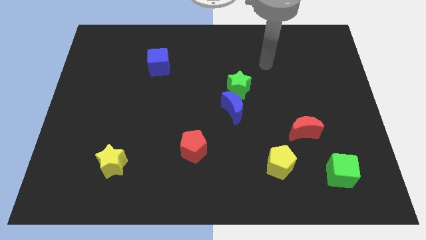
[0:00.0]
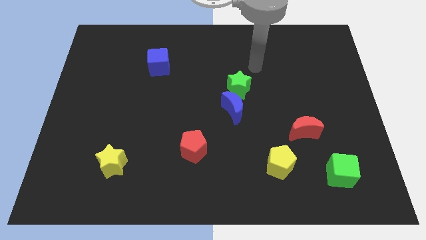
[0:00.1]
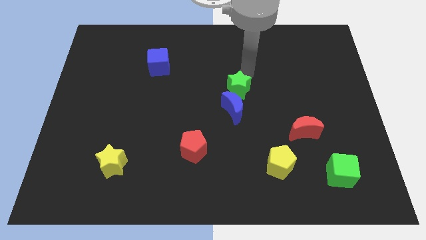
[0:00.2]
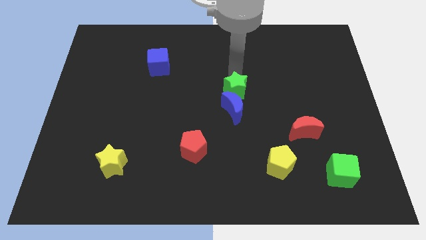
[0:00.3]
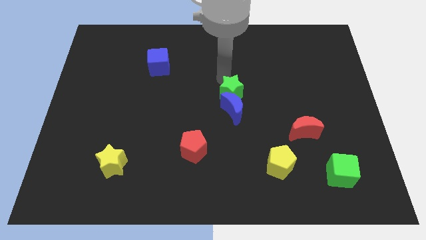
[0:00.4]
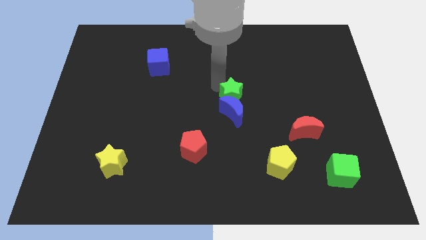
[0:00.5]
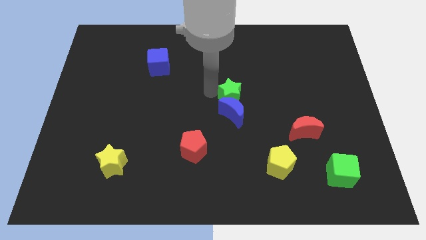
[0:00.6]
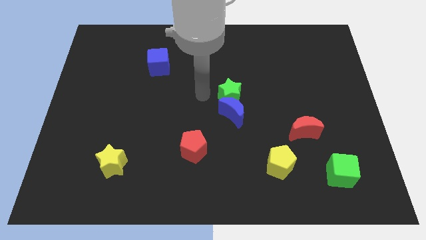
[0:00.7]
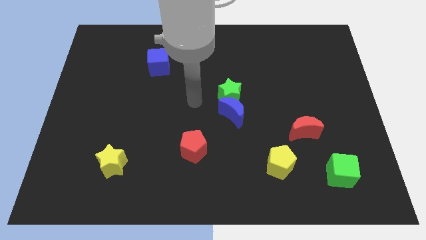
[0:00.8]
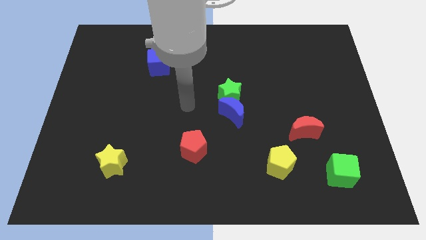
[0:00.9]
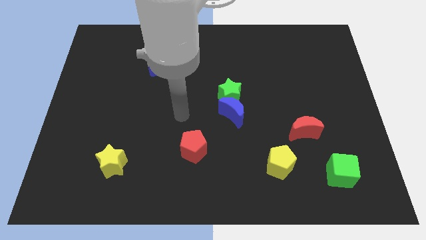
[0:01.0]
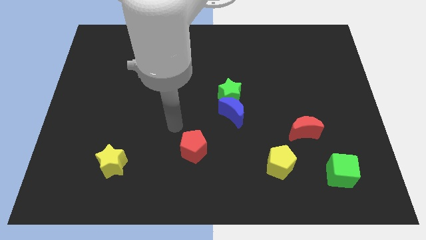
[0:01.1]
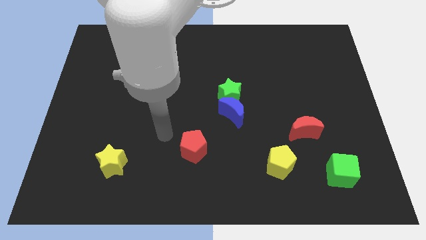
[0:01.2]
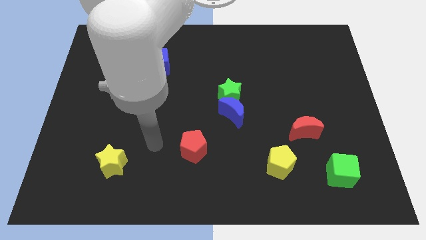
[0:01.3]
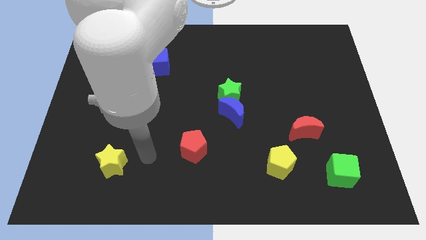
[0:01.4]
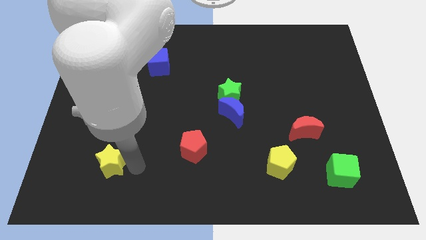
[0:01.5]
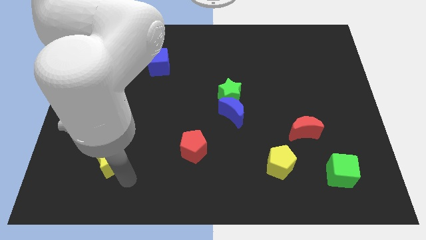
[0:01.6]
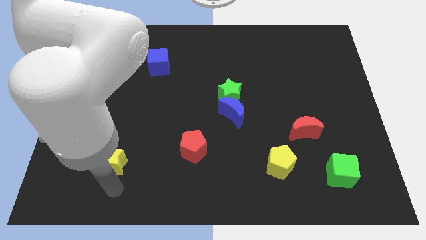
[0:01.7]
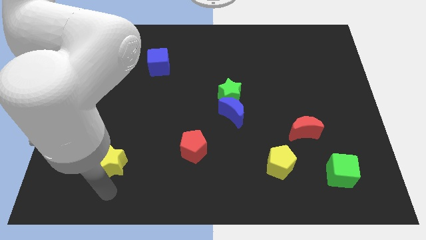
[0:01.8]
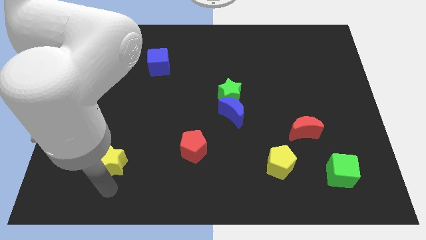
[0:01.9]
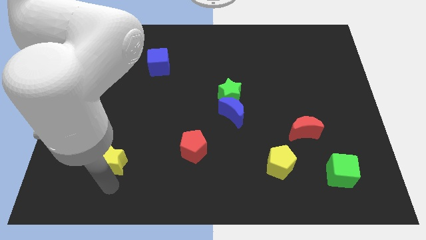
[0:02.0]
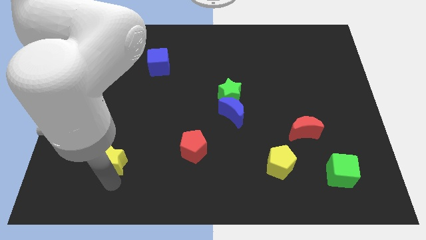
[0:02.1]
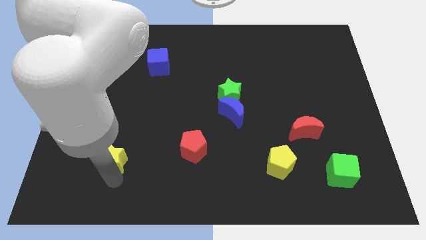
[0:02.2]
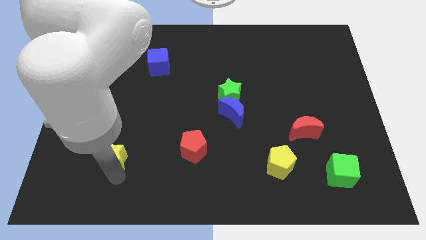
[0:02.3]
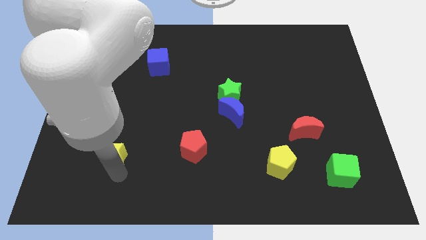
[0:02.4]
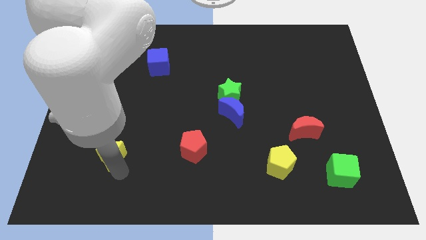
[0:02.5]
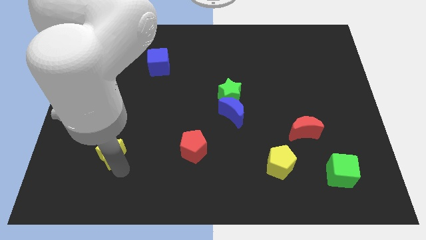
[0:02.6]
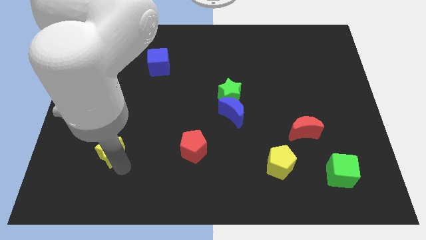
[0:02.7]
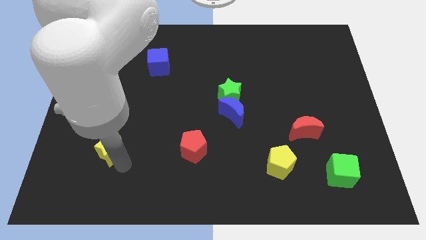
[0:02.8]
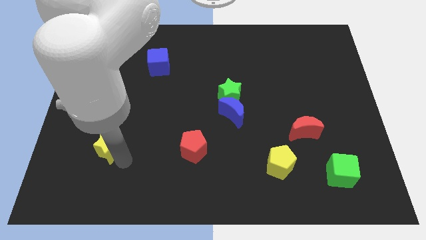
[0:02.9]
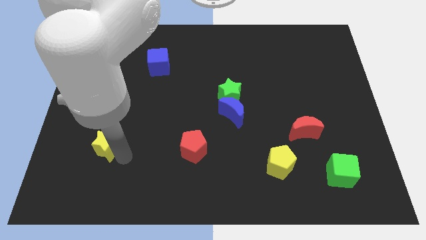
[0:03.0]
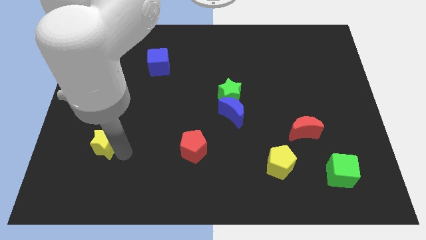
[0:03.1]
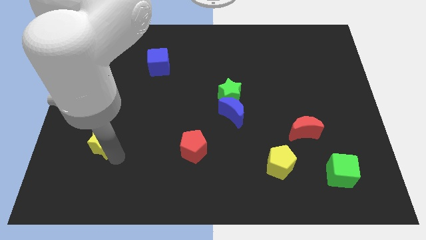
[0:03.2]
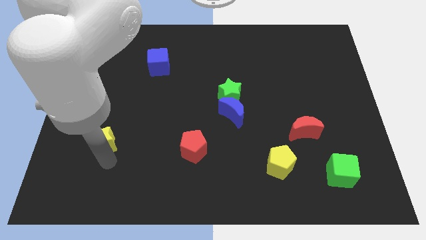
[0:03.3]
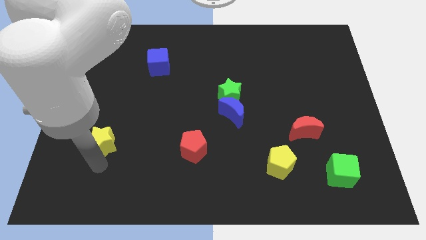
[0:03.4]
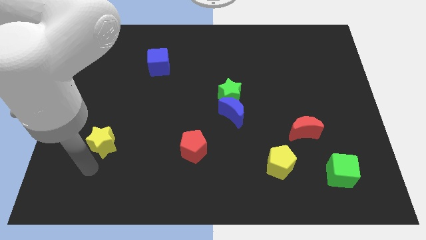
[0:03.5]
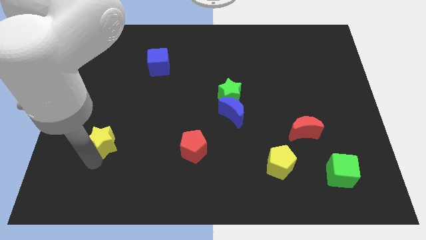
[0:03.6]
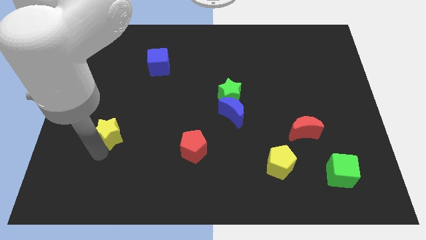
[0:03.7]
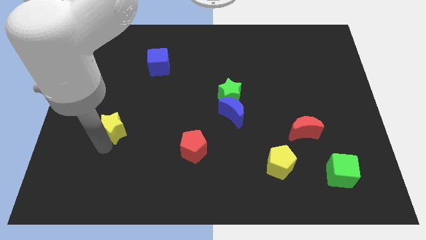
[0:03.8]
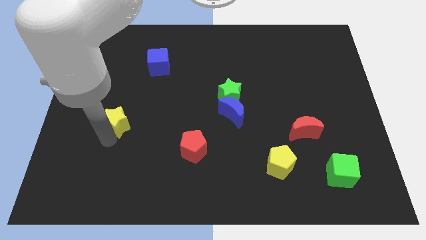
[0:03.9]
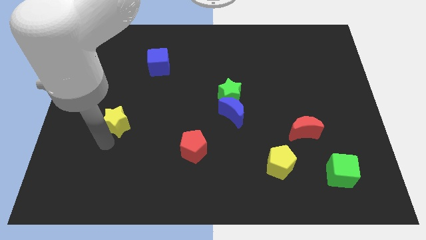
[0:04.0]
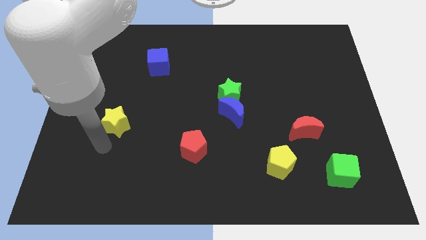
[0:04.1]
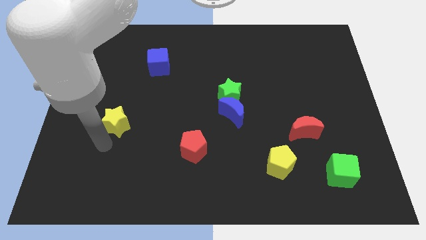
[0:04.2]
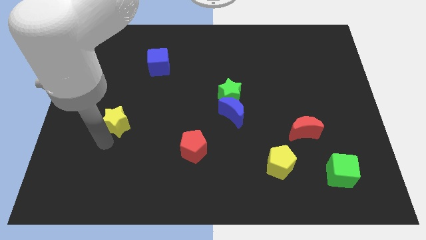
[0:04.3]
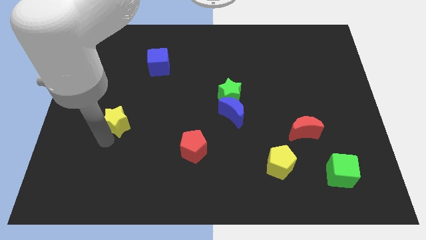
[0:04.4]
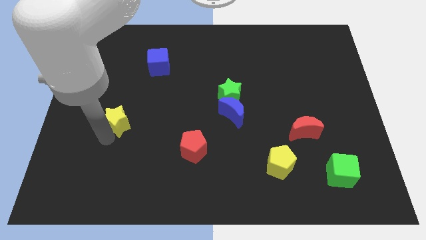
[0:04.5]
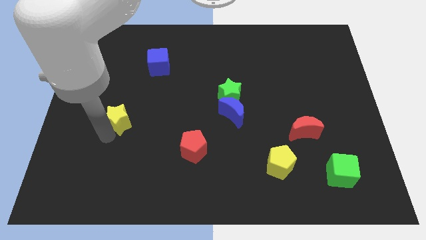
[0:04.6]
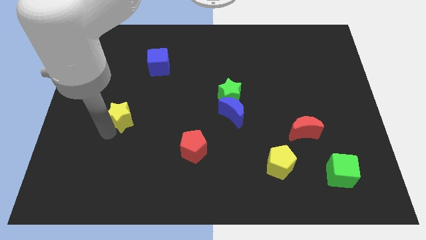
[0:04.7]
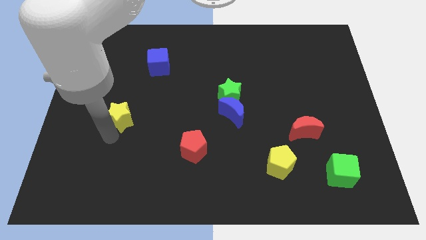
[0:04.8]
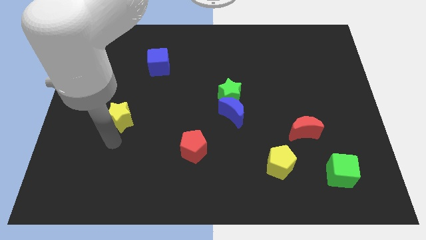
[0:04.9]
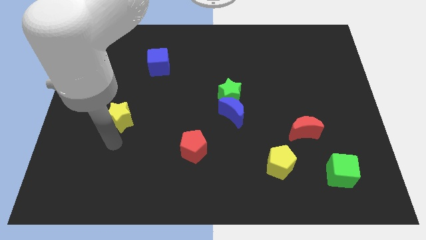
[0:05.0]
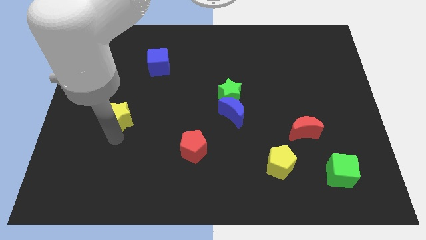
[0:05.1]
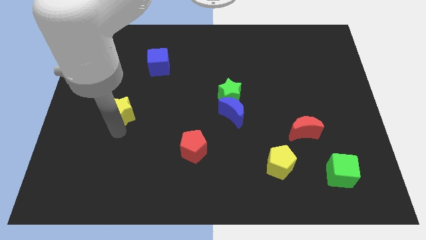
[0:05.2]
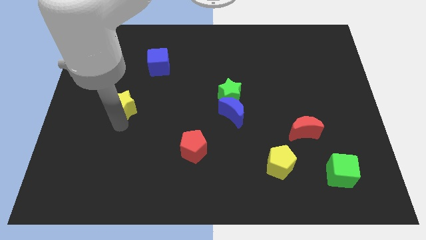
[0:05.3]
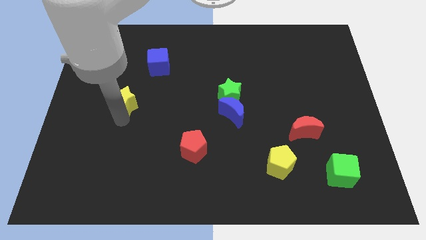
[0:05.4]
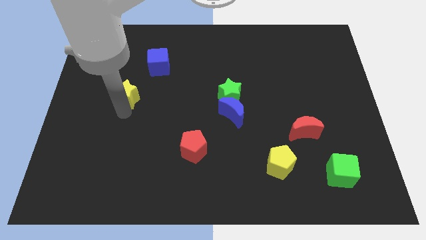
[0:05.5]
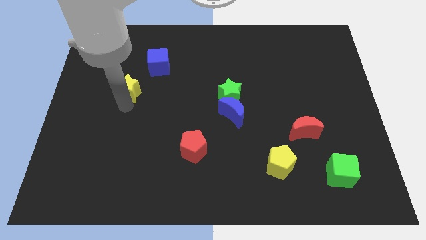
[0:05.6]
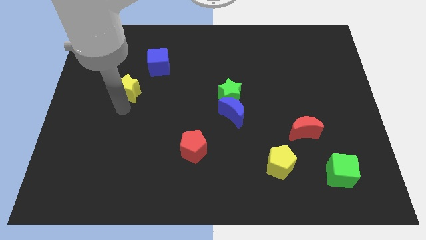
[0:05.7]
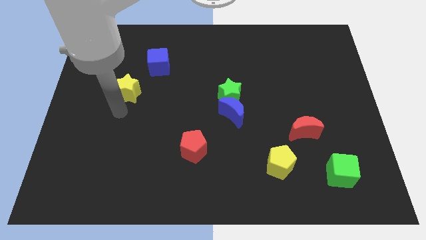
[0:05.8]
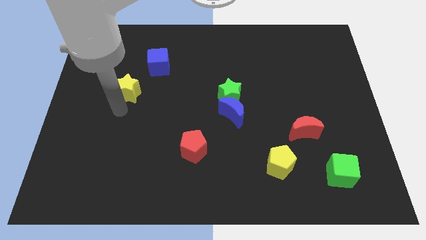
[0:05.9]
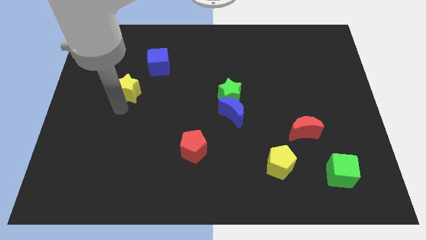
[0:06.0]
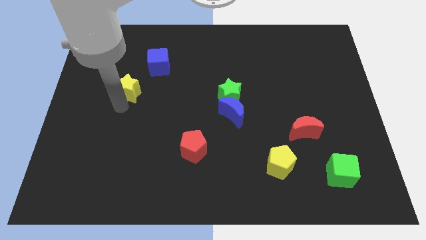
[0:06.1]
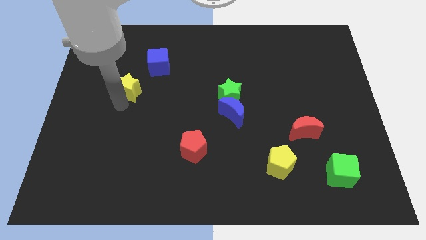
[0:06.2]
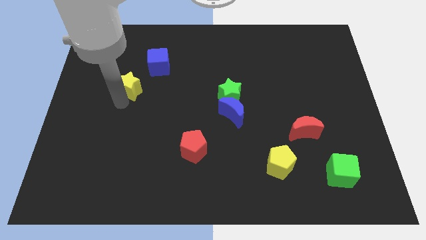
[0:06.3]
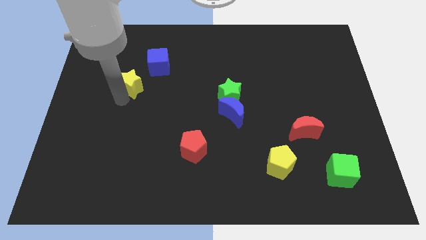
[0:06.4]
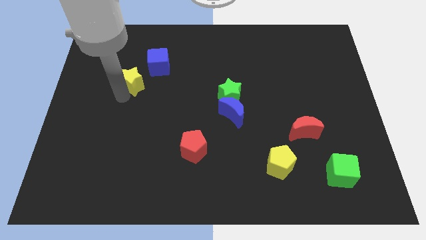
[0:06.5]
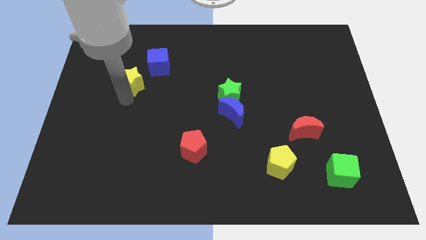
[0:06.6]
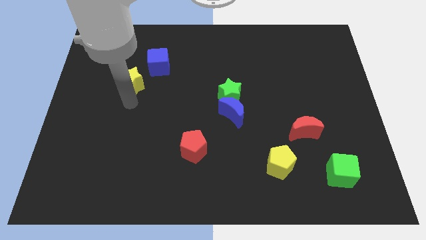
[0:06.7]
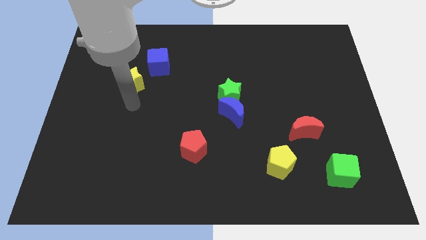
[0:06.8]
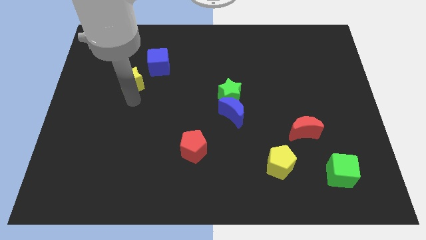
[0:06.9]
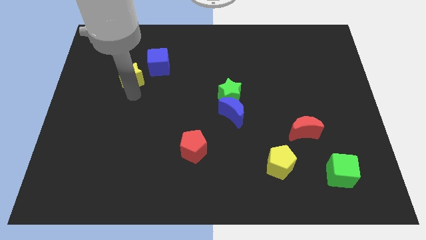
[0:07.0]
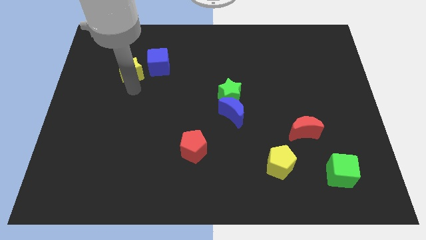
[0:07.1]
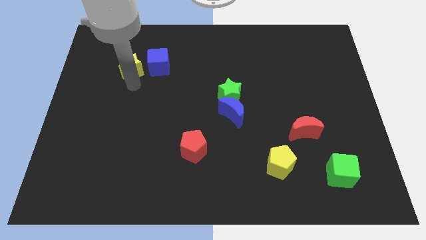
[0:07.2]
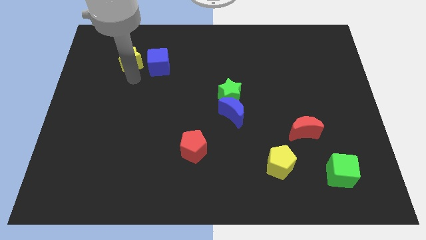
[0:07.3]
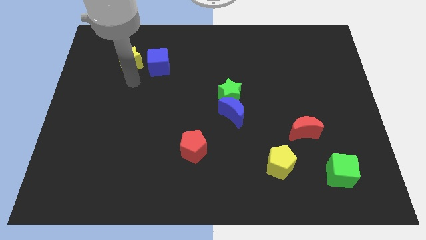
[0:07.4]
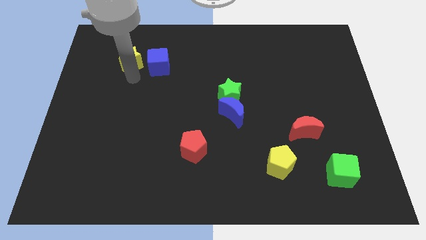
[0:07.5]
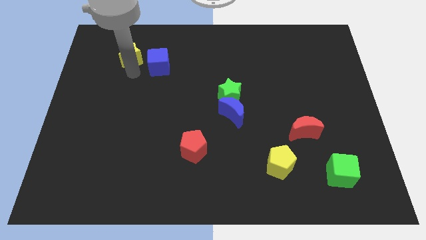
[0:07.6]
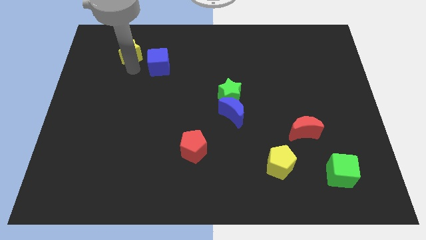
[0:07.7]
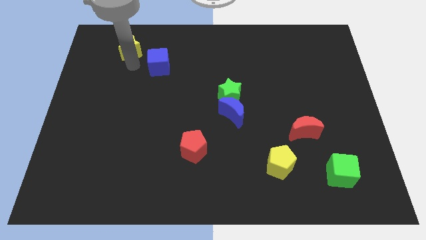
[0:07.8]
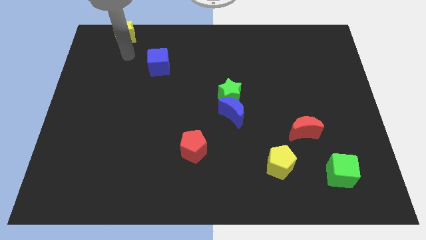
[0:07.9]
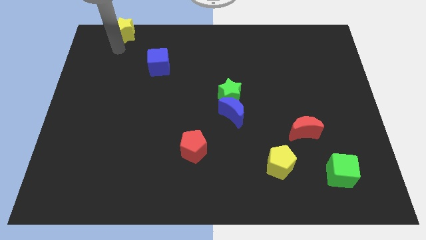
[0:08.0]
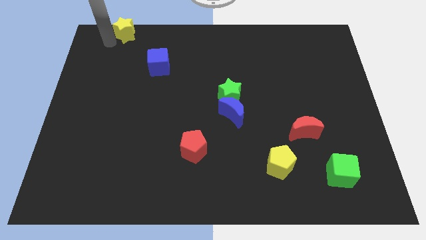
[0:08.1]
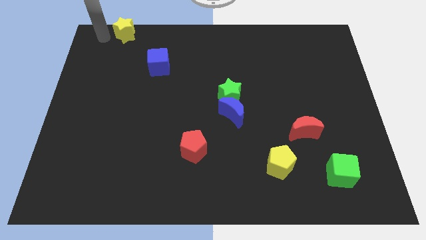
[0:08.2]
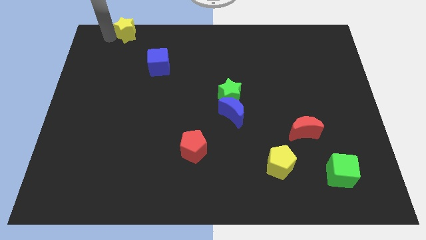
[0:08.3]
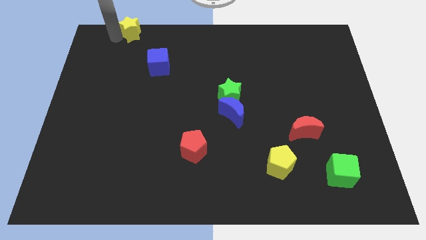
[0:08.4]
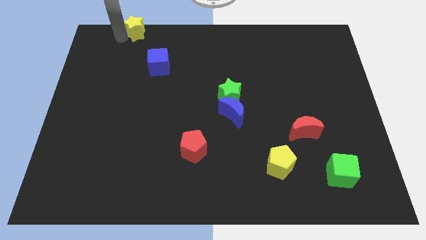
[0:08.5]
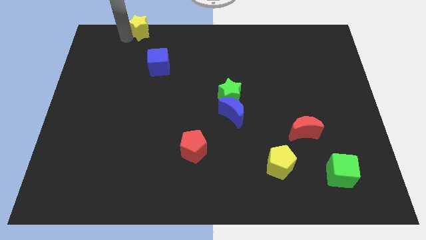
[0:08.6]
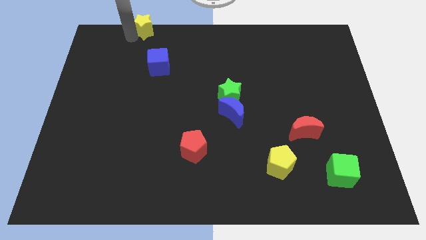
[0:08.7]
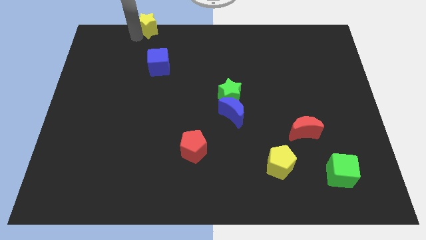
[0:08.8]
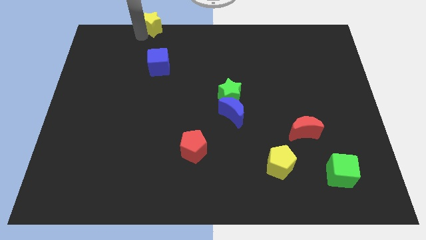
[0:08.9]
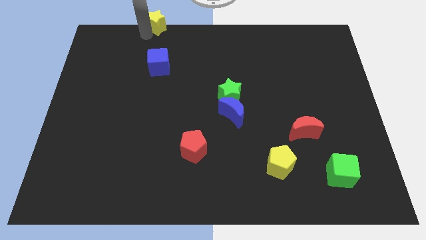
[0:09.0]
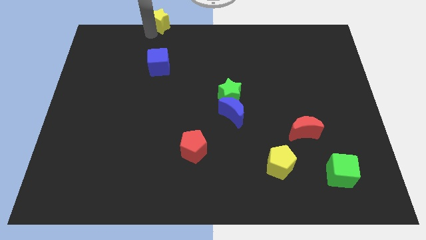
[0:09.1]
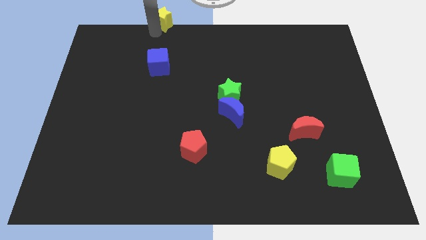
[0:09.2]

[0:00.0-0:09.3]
put the yellow star to the top
